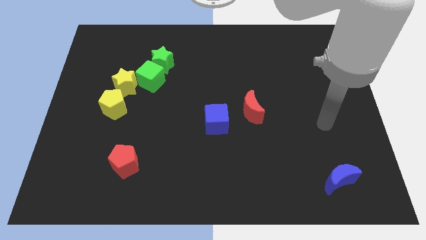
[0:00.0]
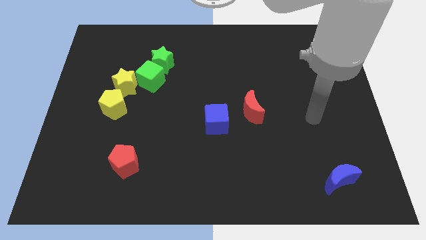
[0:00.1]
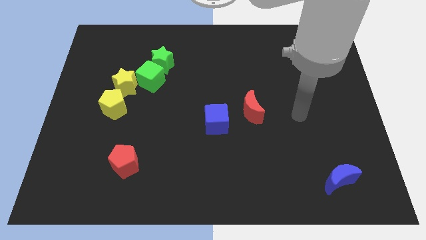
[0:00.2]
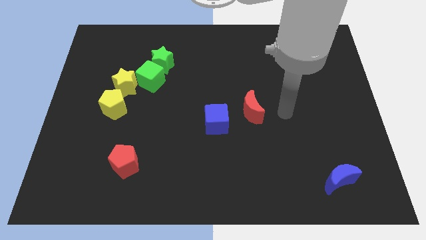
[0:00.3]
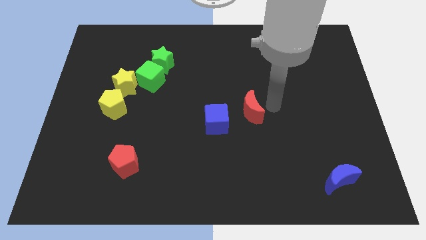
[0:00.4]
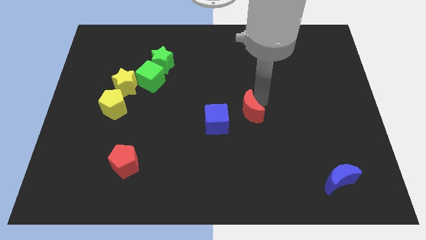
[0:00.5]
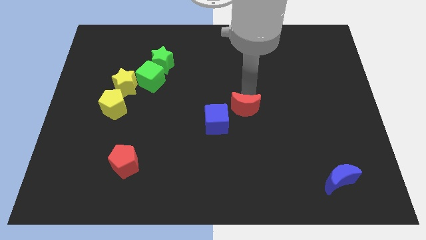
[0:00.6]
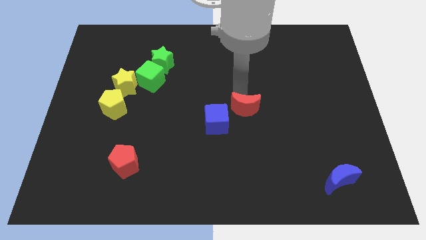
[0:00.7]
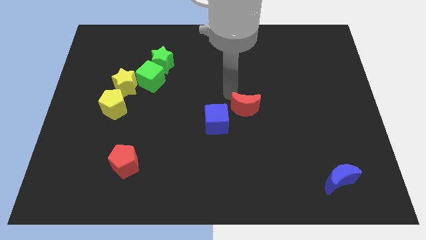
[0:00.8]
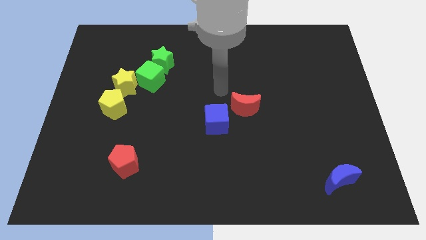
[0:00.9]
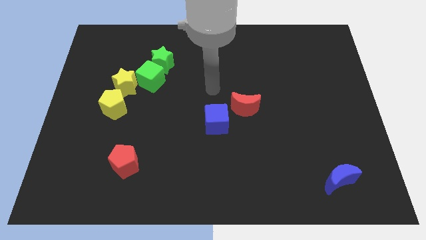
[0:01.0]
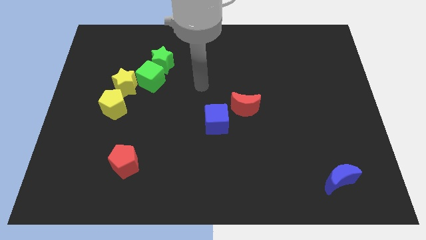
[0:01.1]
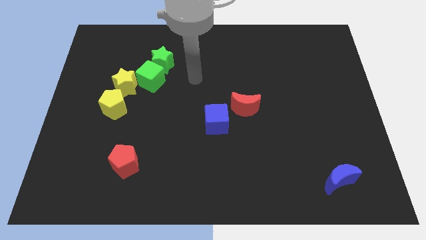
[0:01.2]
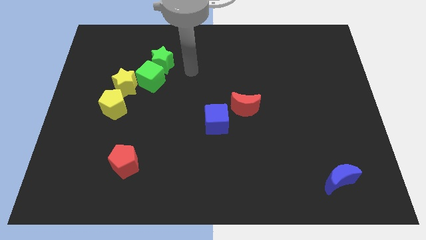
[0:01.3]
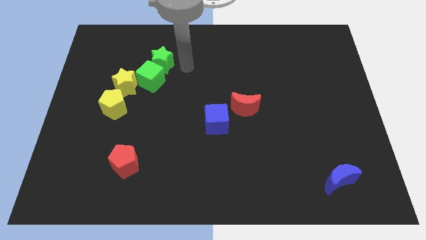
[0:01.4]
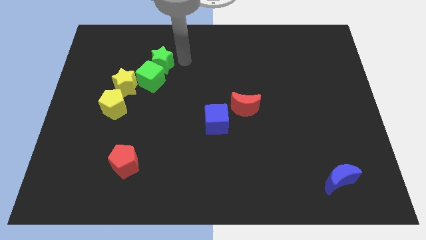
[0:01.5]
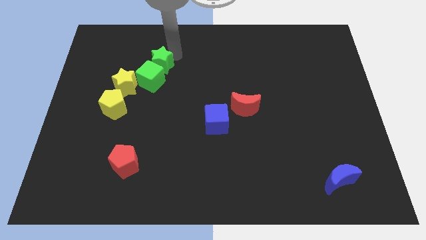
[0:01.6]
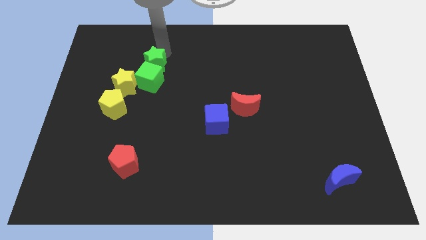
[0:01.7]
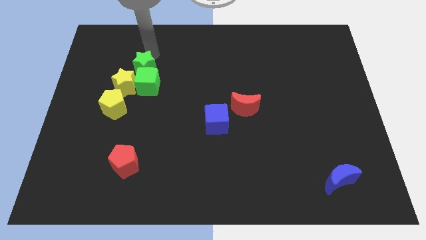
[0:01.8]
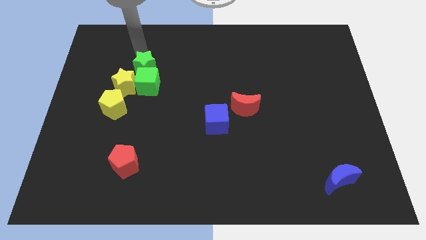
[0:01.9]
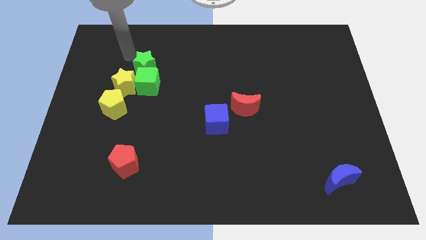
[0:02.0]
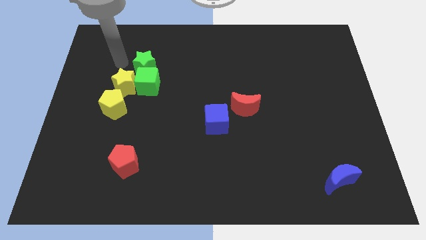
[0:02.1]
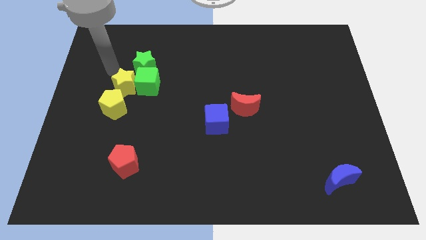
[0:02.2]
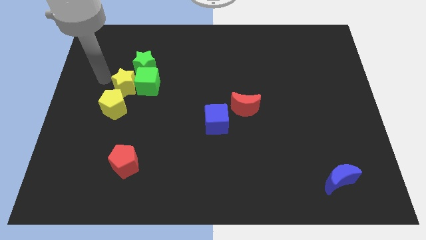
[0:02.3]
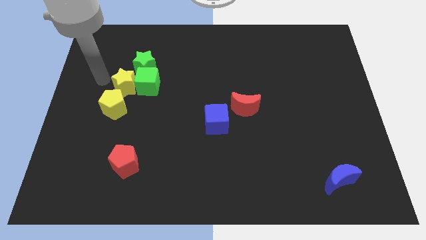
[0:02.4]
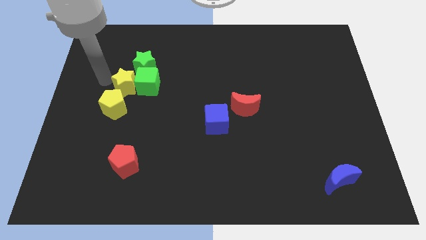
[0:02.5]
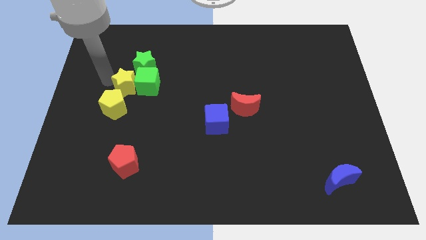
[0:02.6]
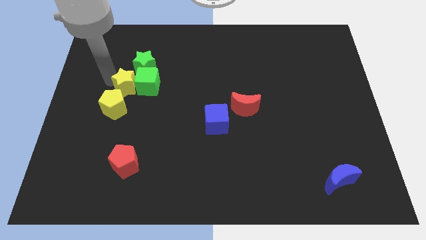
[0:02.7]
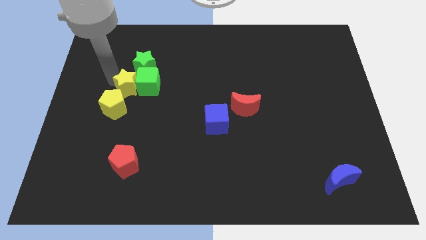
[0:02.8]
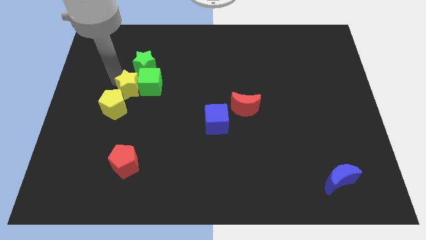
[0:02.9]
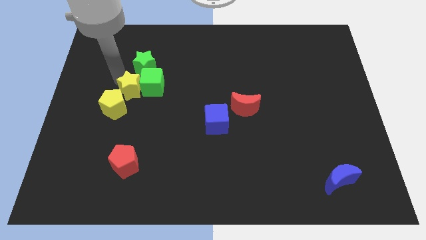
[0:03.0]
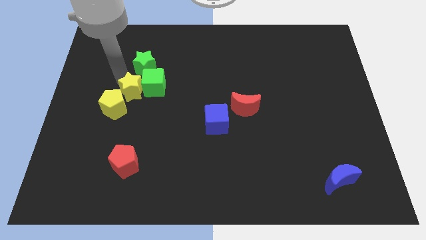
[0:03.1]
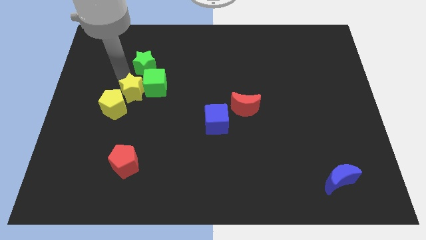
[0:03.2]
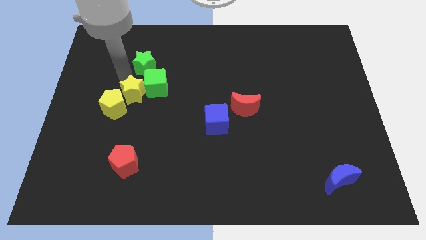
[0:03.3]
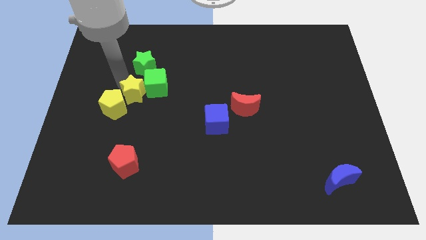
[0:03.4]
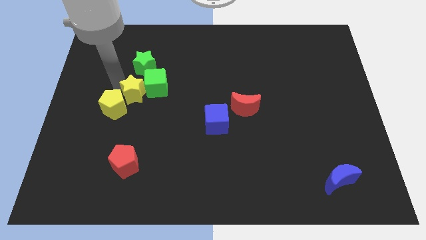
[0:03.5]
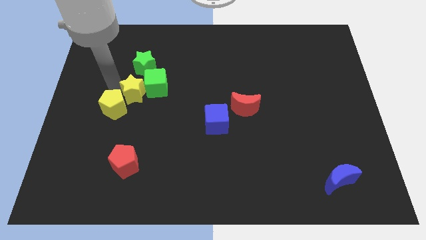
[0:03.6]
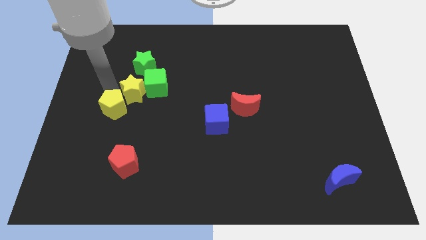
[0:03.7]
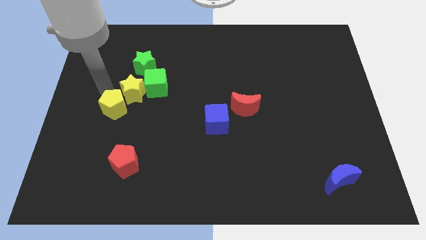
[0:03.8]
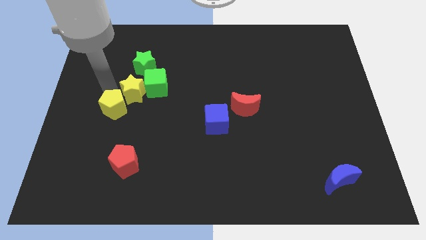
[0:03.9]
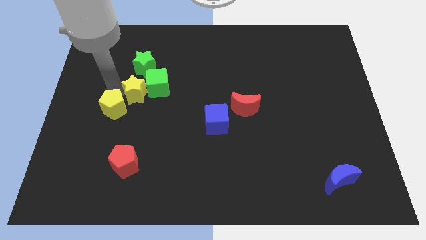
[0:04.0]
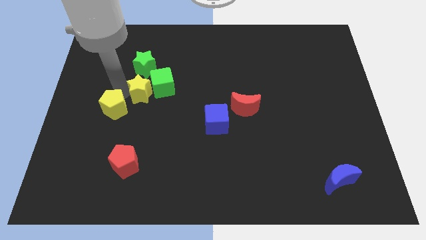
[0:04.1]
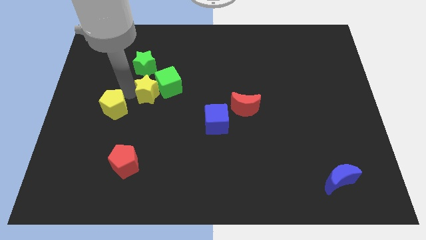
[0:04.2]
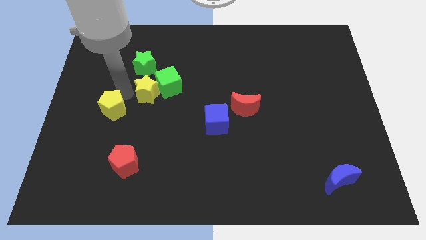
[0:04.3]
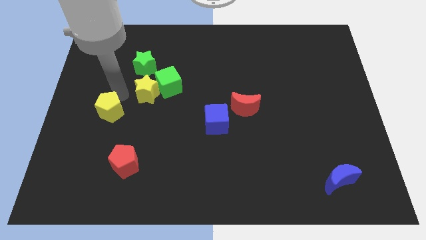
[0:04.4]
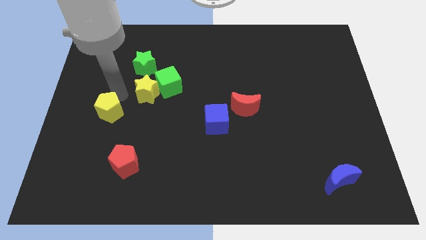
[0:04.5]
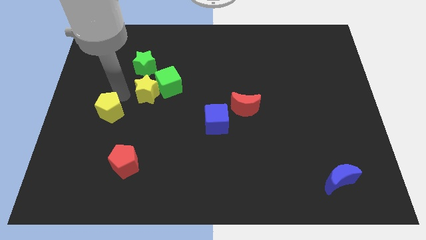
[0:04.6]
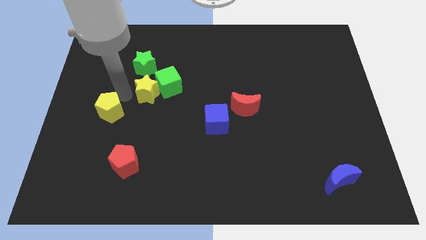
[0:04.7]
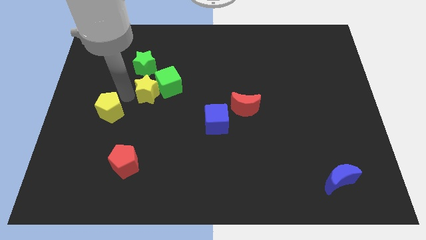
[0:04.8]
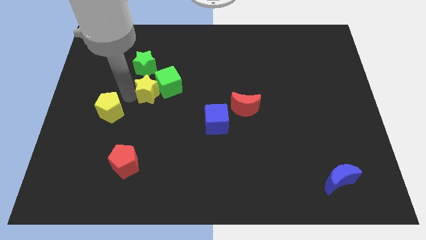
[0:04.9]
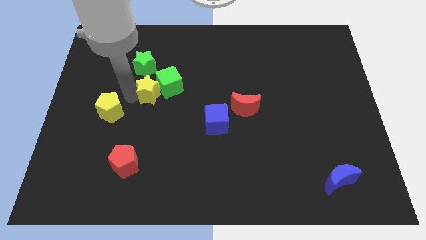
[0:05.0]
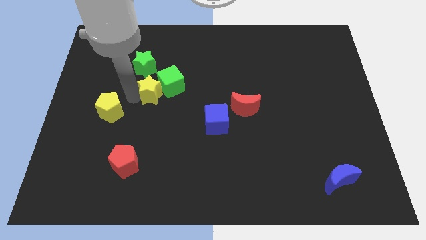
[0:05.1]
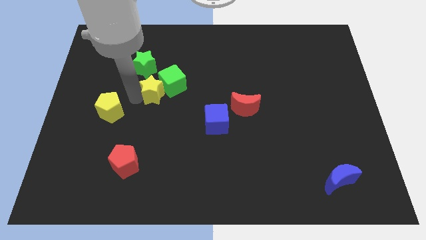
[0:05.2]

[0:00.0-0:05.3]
slide the yellow star a little right

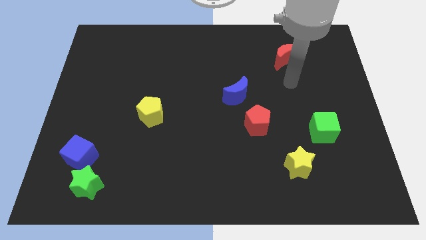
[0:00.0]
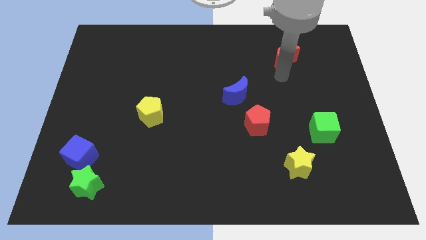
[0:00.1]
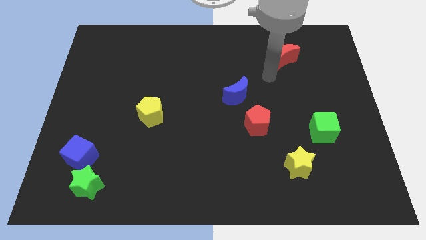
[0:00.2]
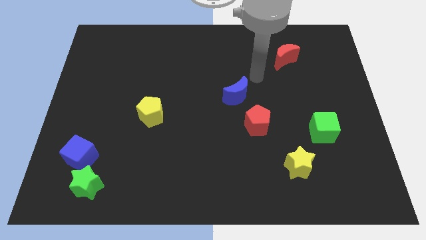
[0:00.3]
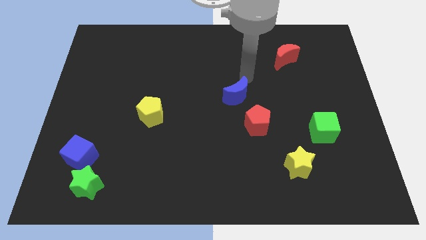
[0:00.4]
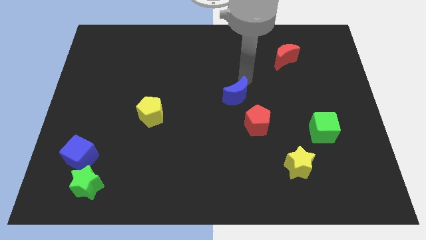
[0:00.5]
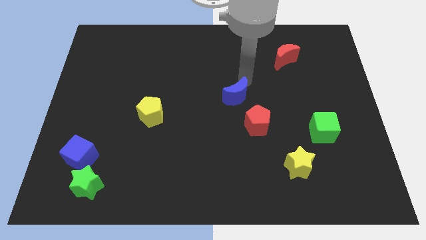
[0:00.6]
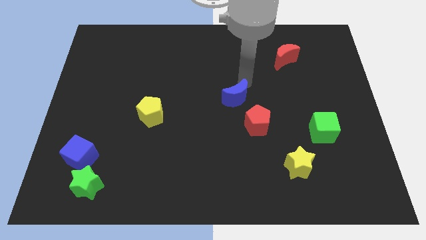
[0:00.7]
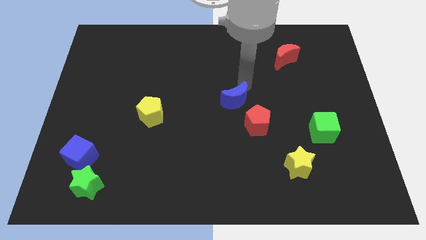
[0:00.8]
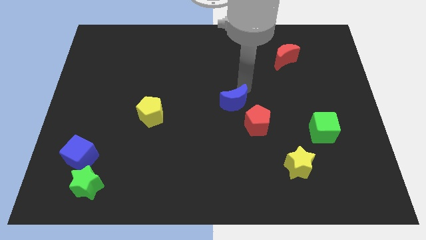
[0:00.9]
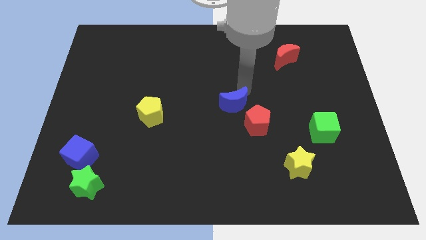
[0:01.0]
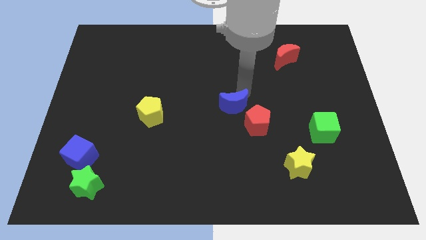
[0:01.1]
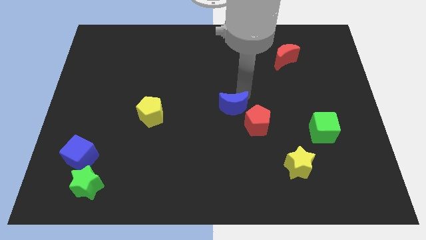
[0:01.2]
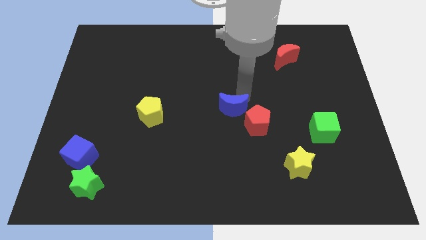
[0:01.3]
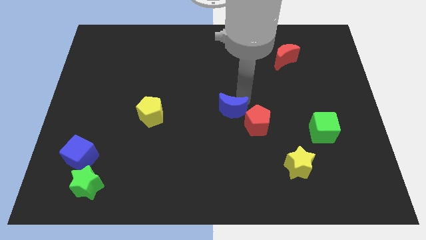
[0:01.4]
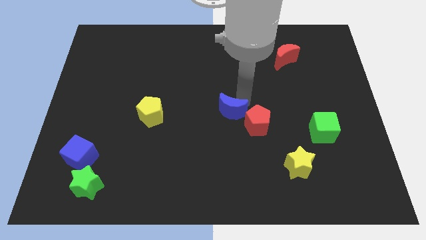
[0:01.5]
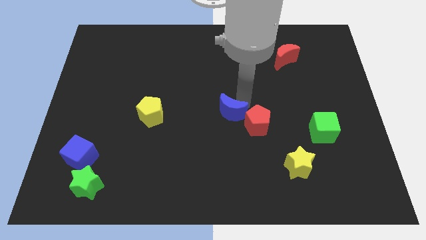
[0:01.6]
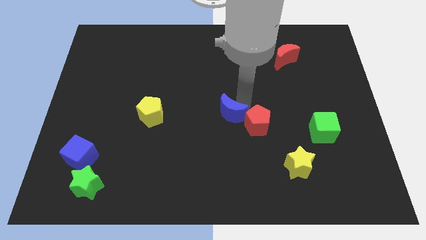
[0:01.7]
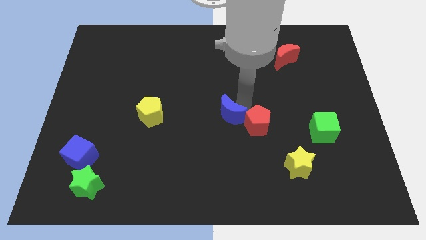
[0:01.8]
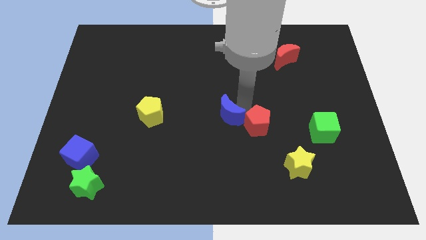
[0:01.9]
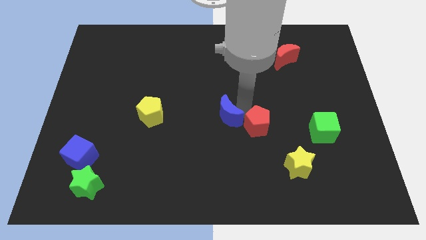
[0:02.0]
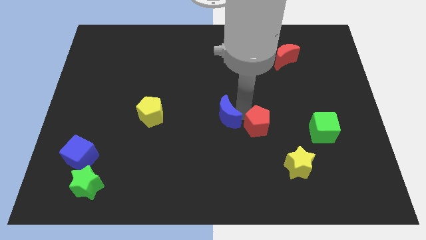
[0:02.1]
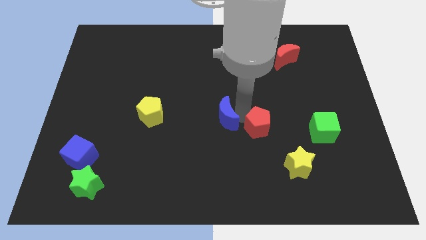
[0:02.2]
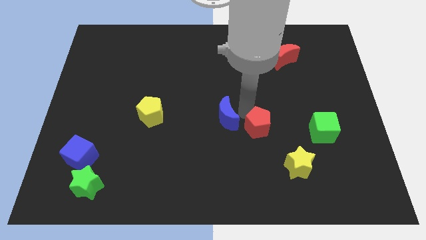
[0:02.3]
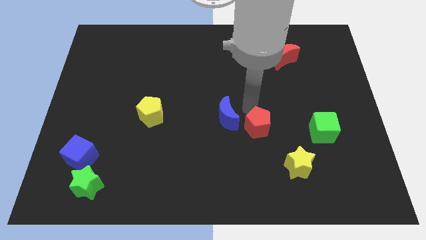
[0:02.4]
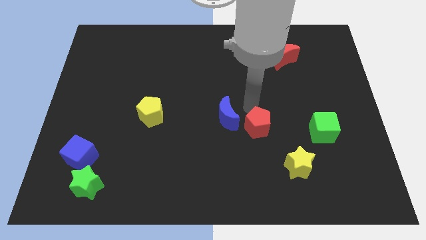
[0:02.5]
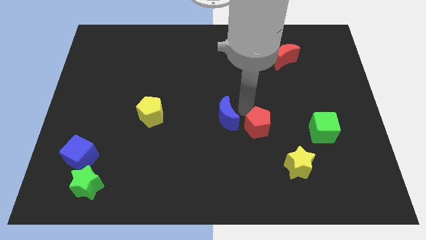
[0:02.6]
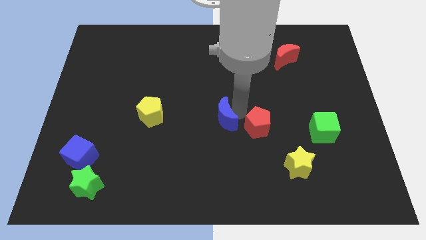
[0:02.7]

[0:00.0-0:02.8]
push the blue moon a bit downwards and then to the left
